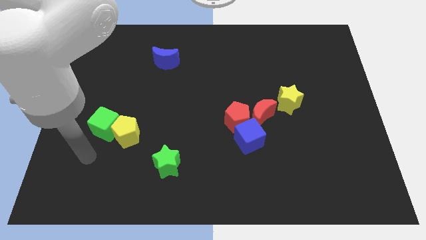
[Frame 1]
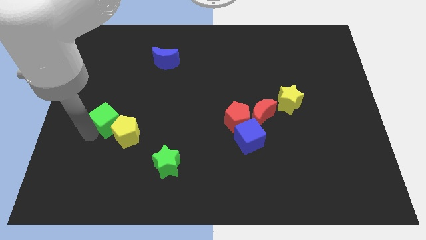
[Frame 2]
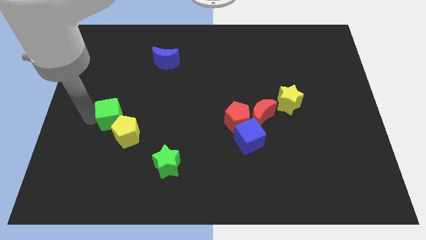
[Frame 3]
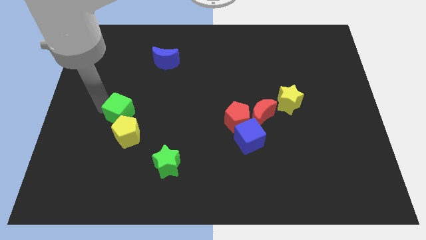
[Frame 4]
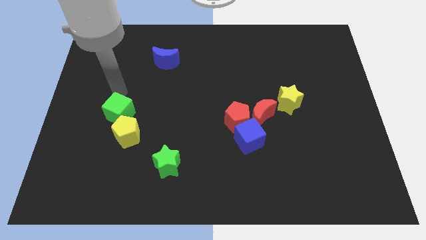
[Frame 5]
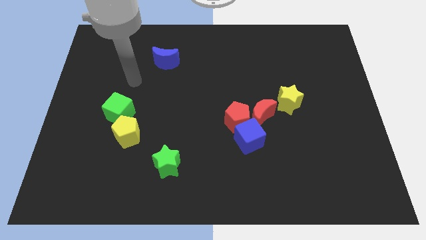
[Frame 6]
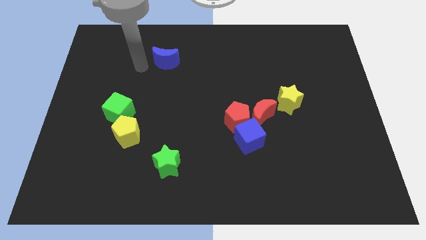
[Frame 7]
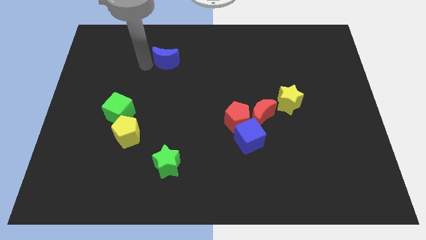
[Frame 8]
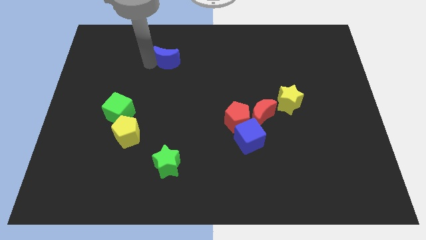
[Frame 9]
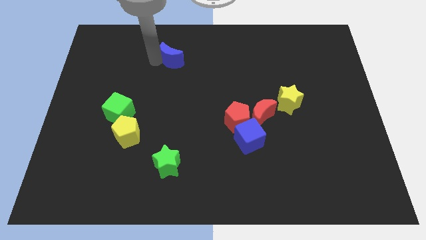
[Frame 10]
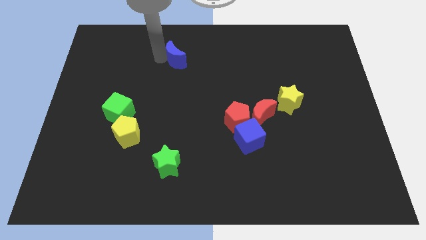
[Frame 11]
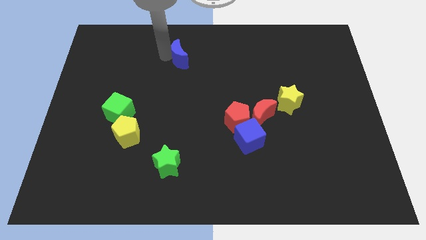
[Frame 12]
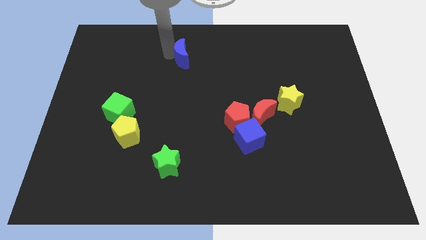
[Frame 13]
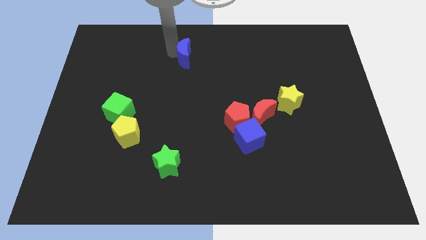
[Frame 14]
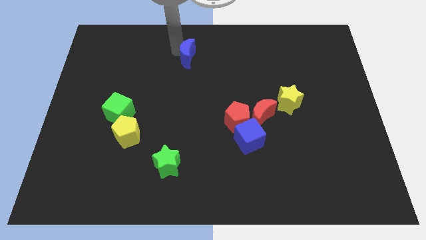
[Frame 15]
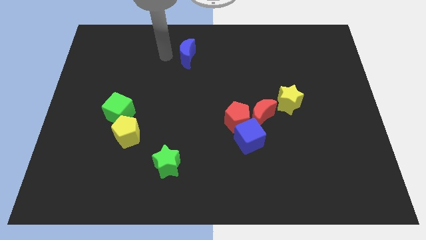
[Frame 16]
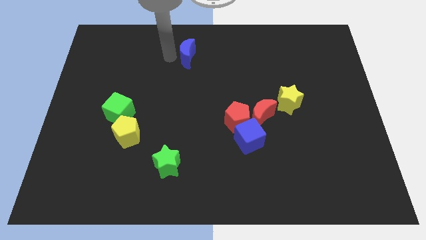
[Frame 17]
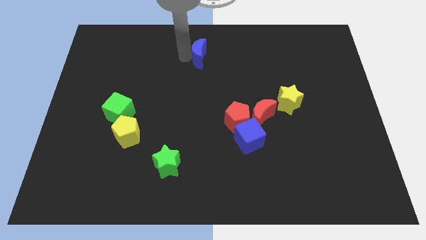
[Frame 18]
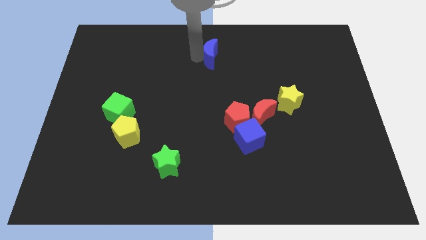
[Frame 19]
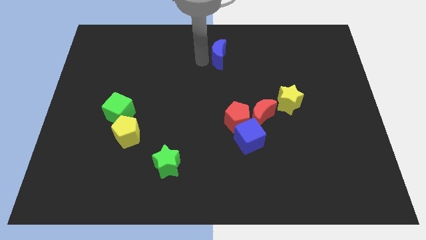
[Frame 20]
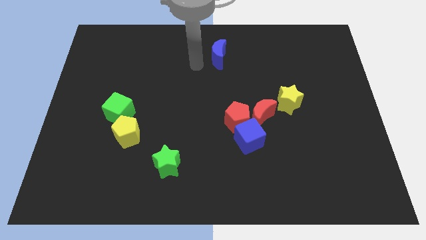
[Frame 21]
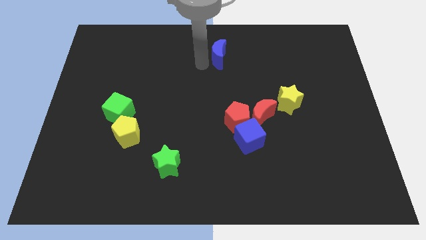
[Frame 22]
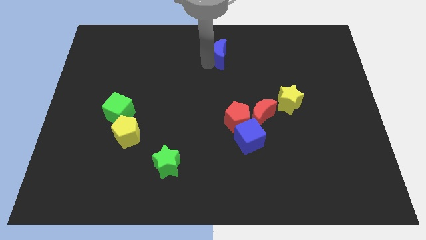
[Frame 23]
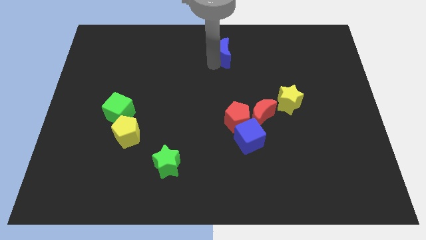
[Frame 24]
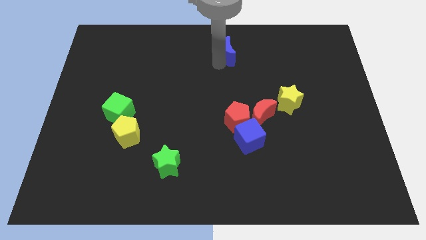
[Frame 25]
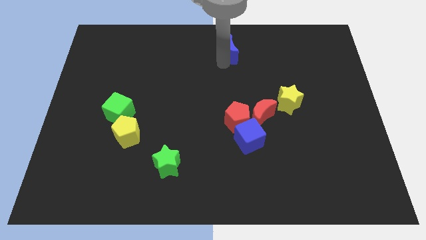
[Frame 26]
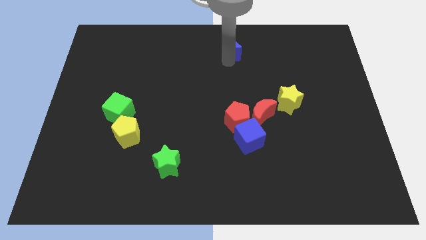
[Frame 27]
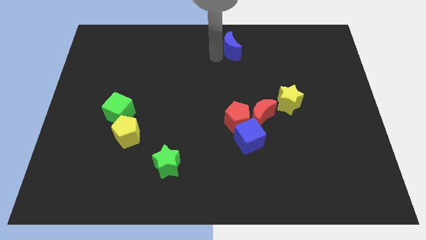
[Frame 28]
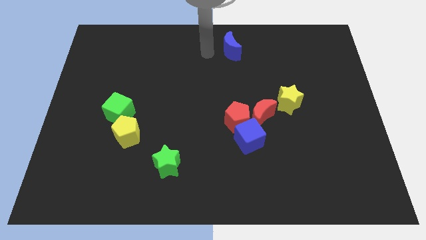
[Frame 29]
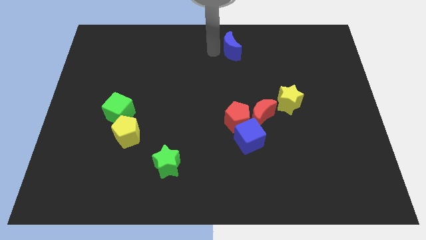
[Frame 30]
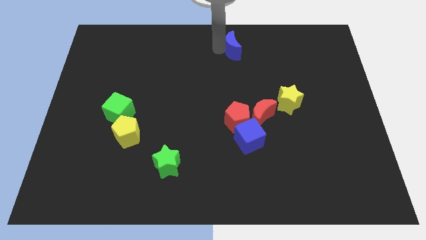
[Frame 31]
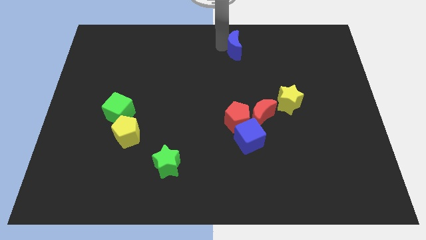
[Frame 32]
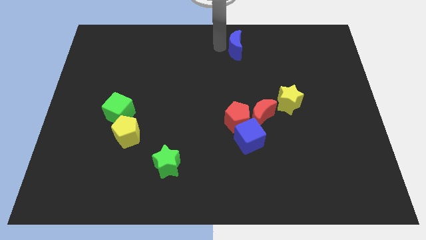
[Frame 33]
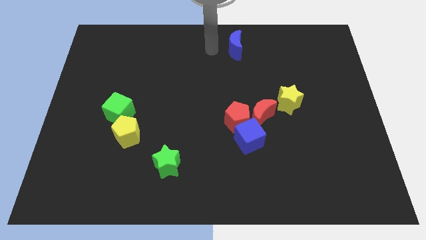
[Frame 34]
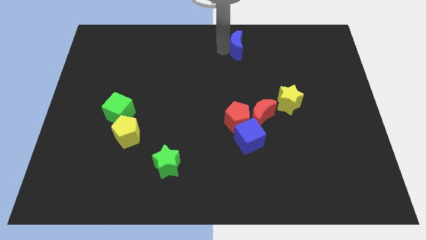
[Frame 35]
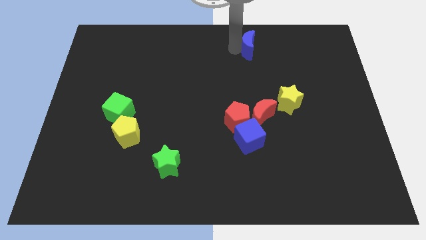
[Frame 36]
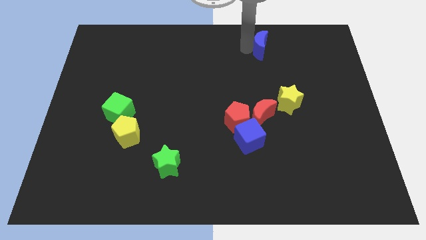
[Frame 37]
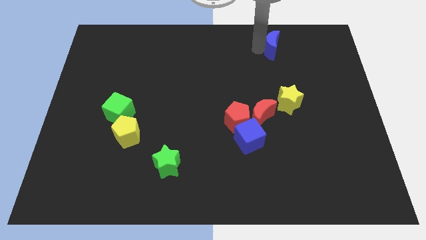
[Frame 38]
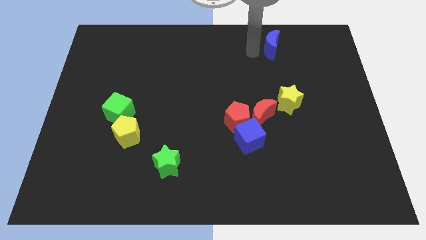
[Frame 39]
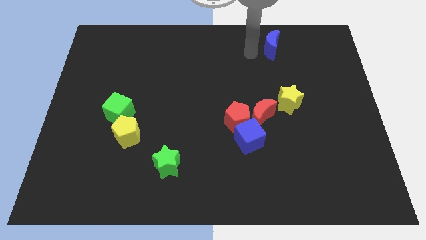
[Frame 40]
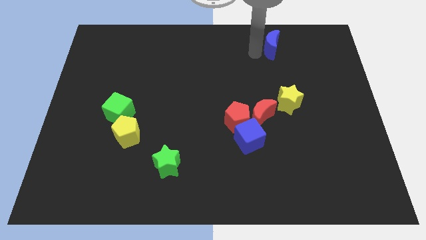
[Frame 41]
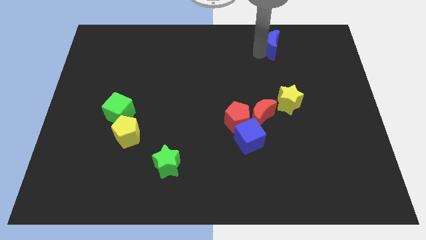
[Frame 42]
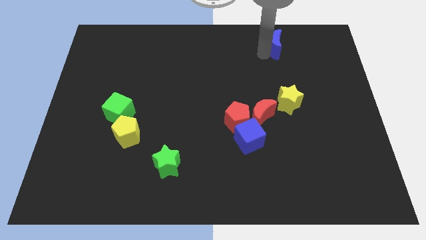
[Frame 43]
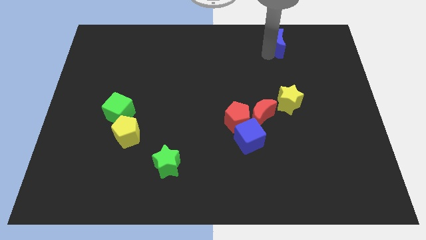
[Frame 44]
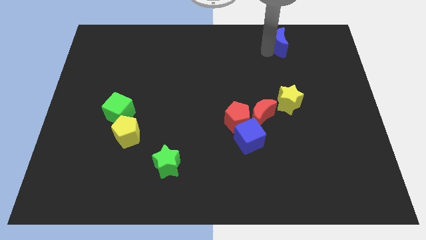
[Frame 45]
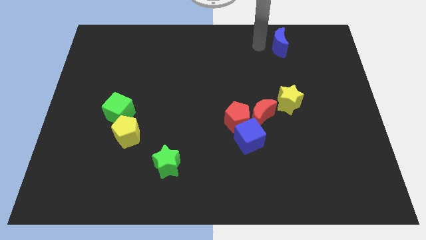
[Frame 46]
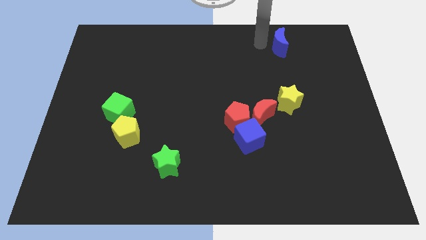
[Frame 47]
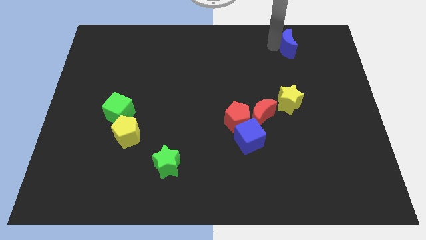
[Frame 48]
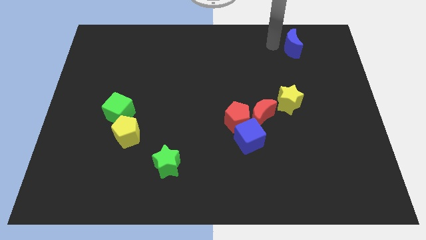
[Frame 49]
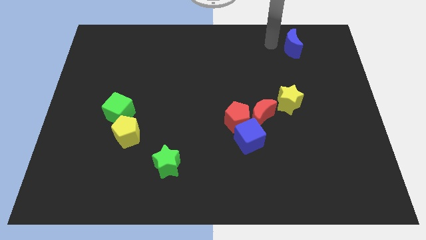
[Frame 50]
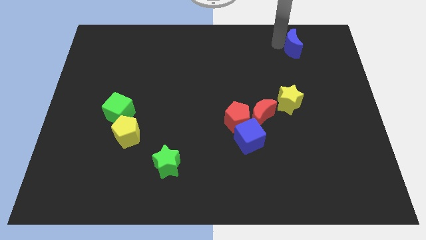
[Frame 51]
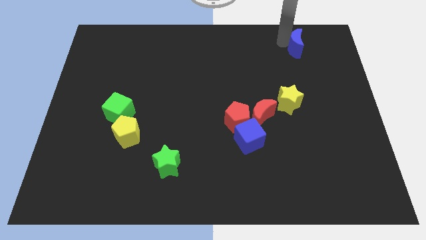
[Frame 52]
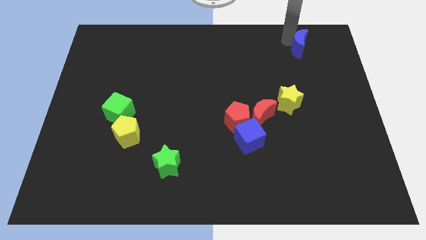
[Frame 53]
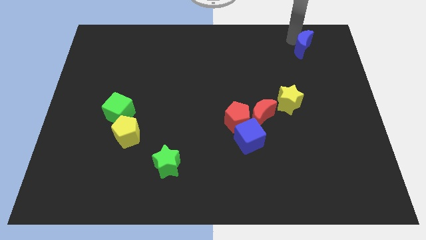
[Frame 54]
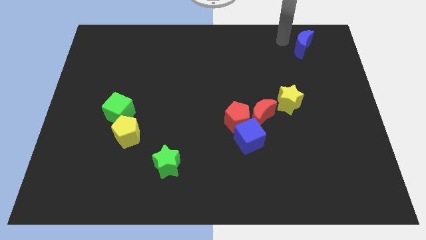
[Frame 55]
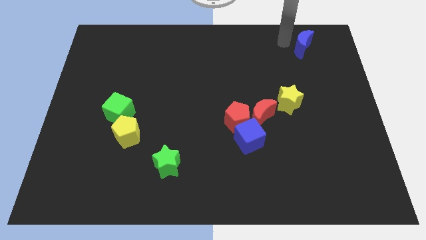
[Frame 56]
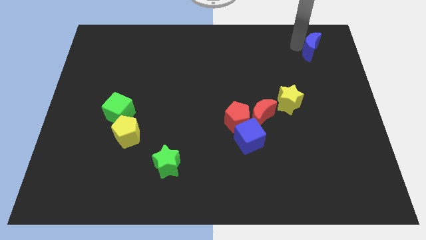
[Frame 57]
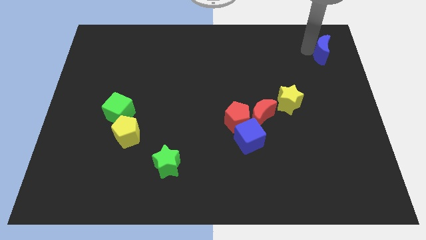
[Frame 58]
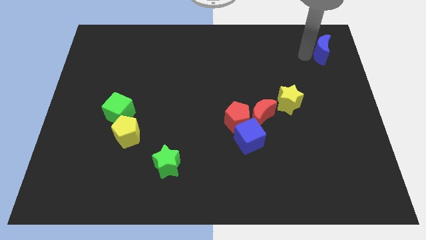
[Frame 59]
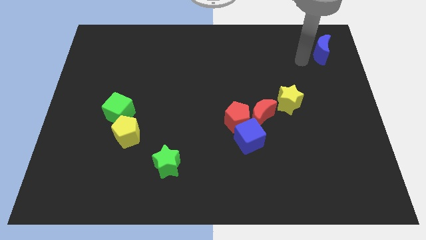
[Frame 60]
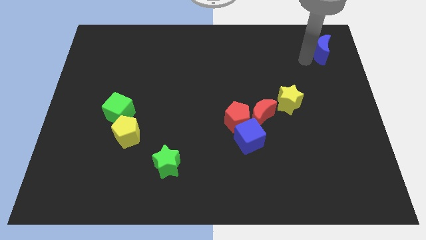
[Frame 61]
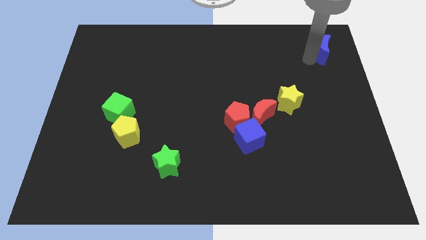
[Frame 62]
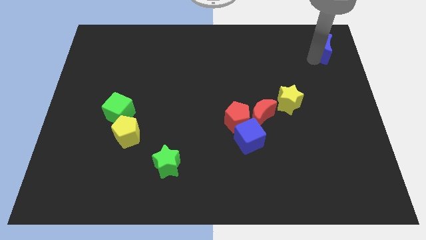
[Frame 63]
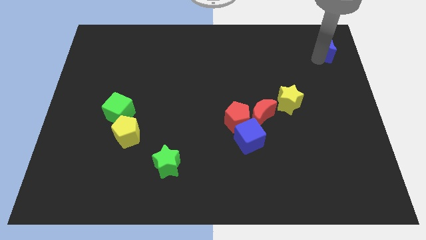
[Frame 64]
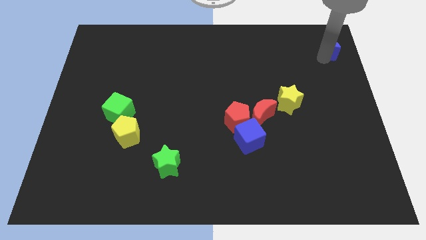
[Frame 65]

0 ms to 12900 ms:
slide the blue moon to the top right corner
